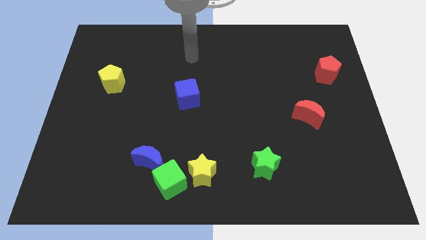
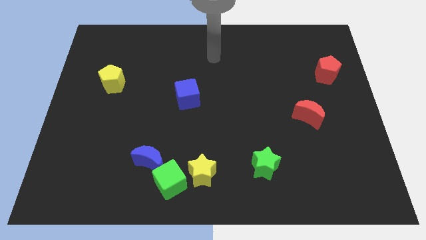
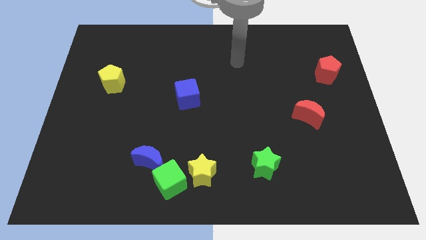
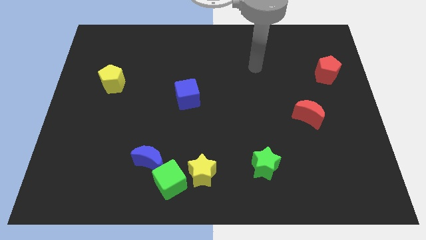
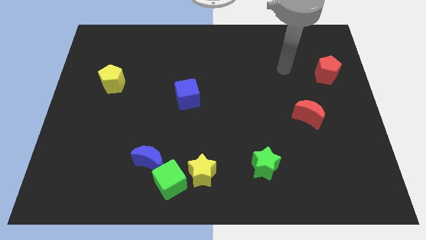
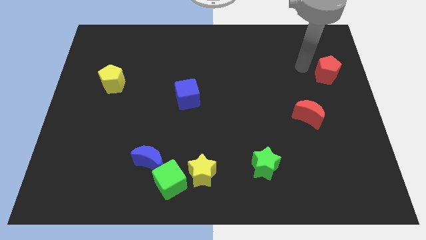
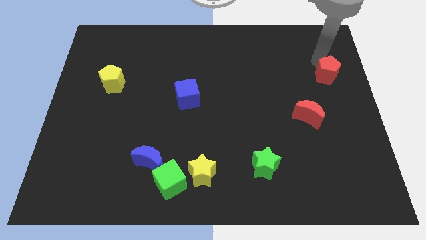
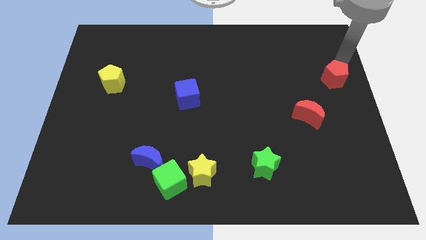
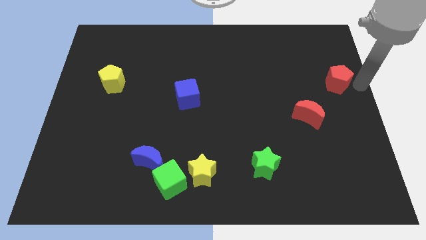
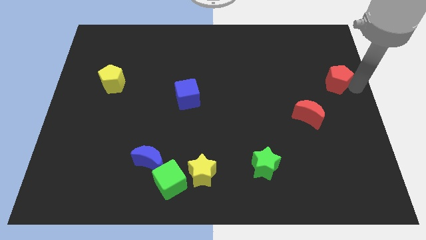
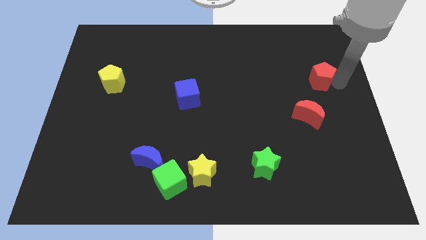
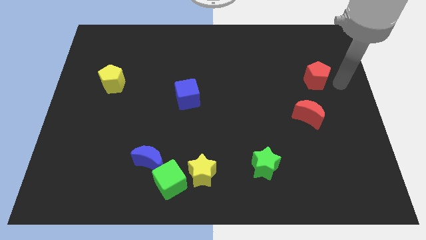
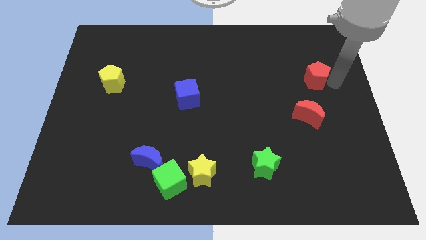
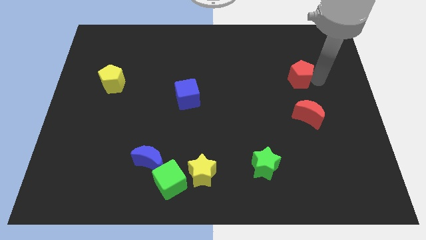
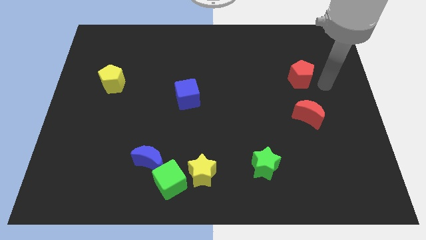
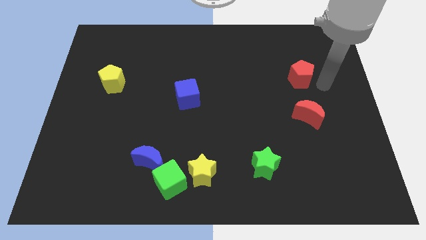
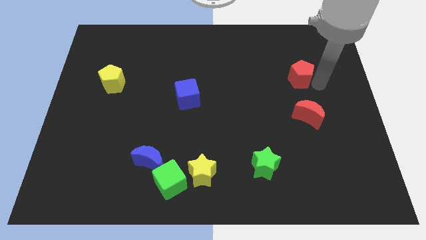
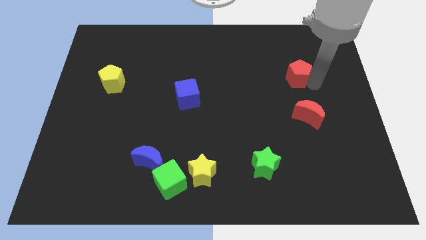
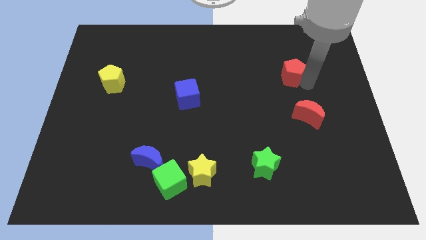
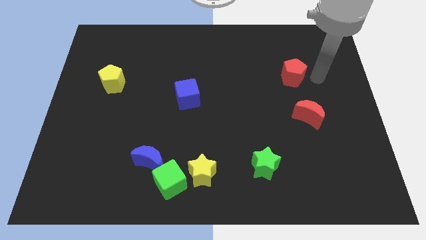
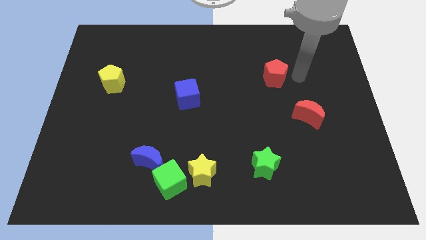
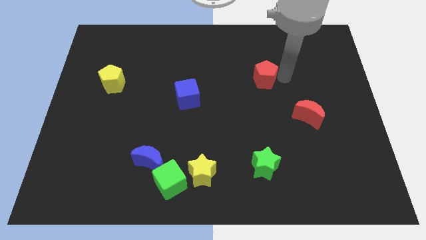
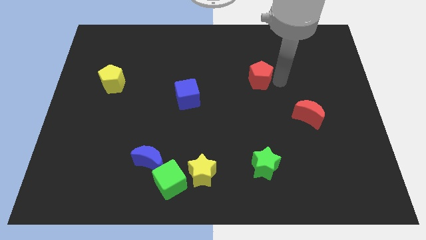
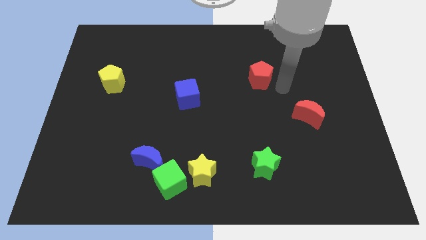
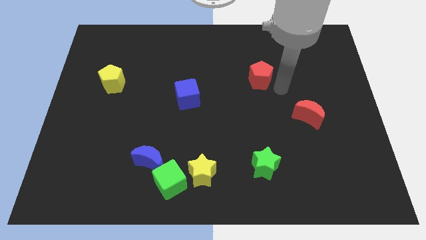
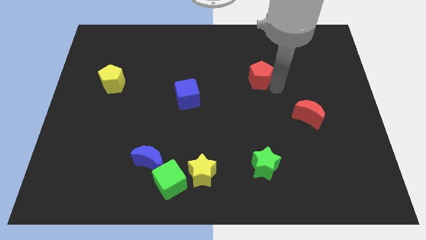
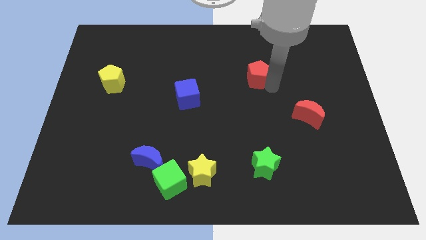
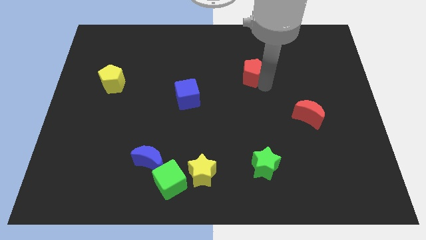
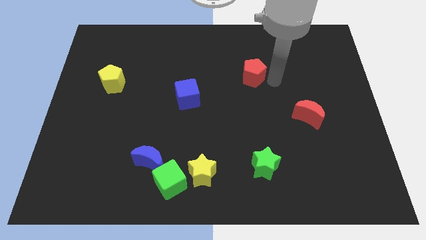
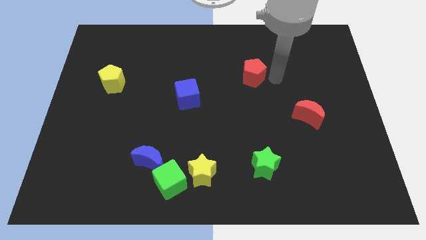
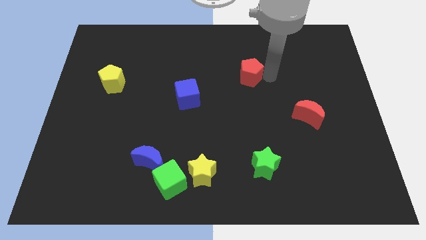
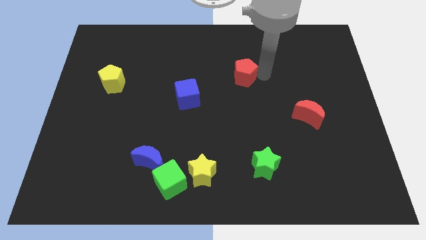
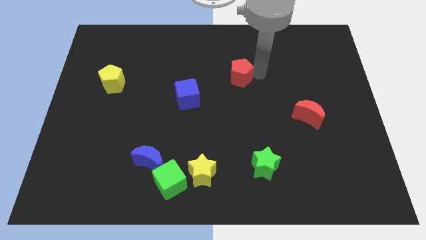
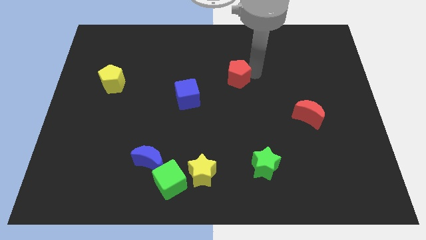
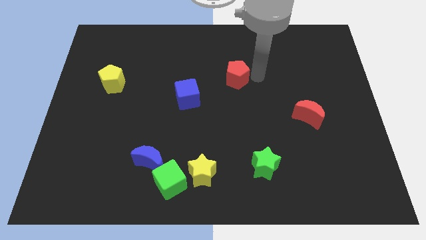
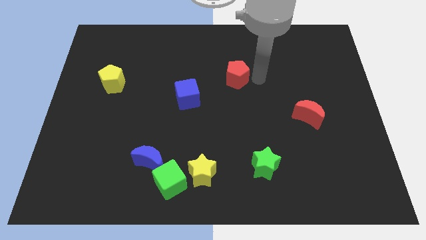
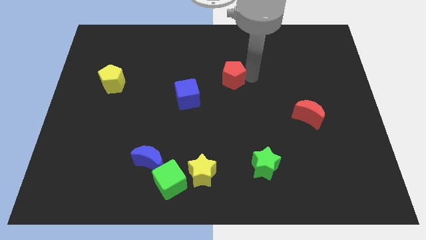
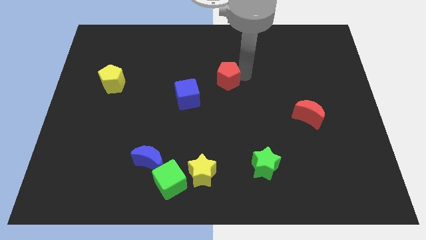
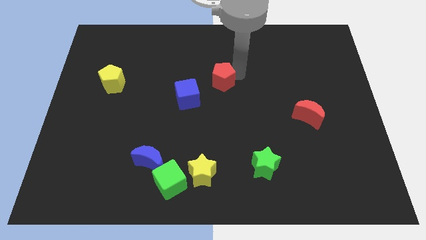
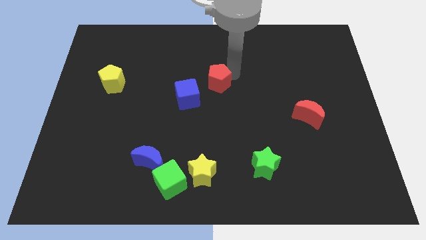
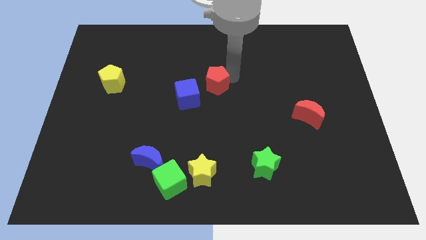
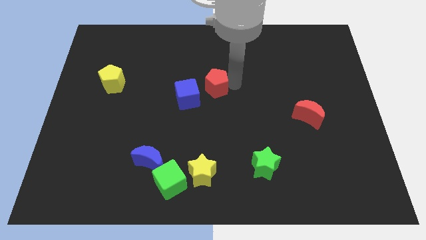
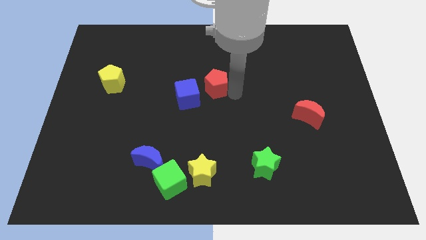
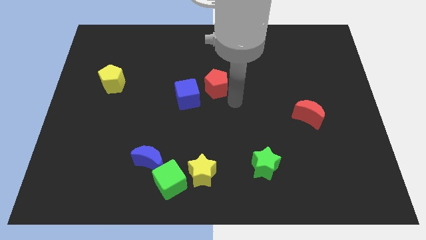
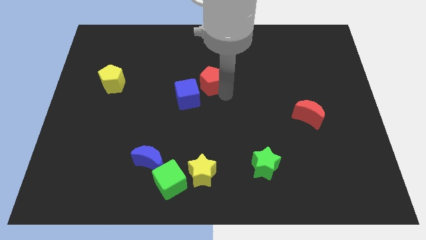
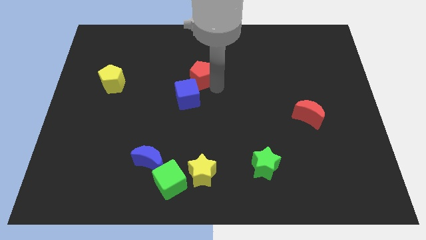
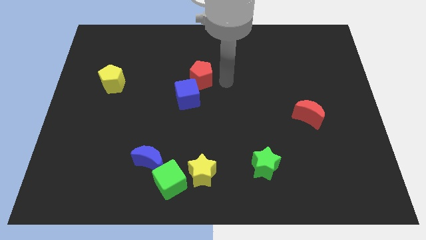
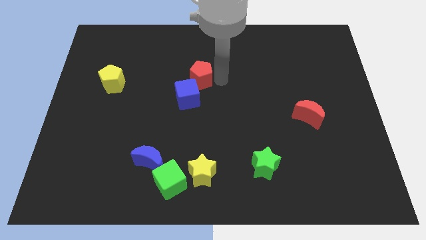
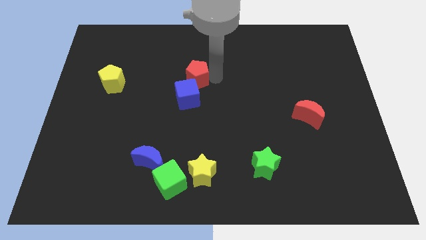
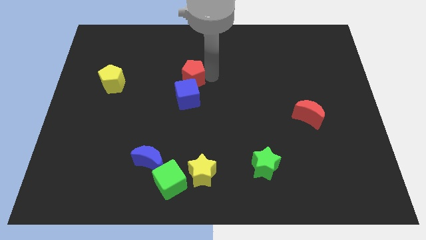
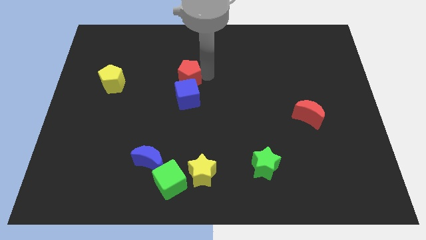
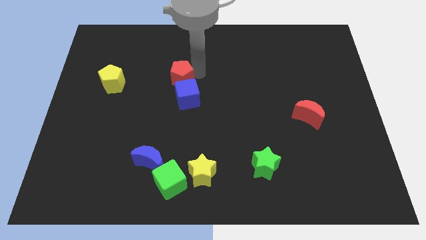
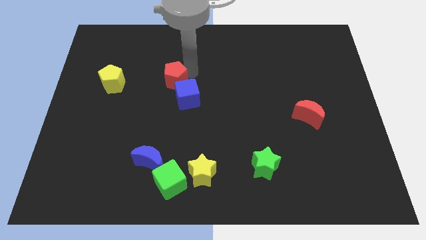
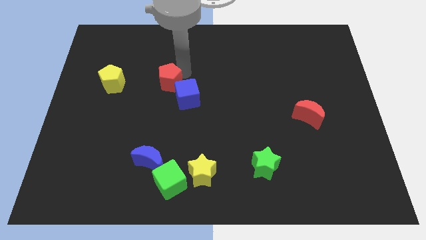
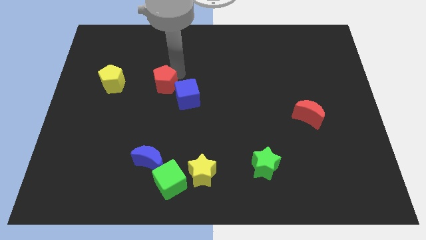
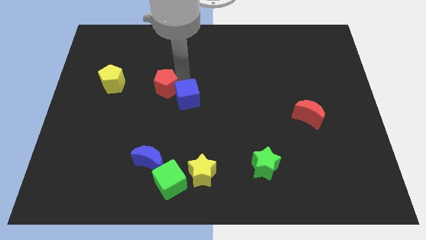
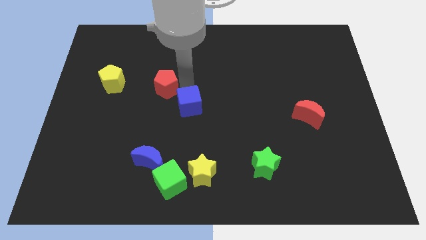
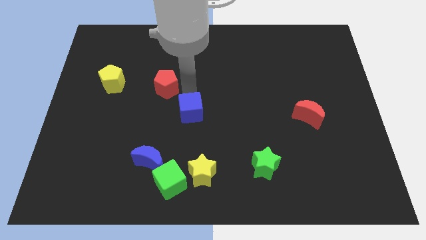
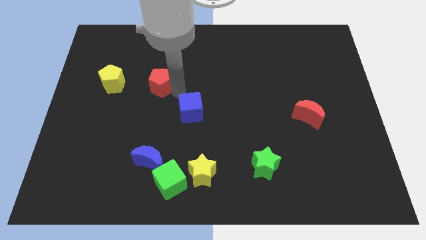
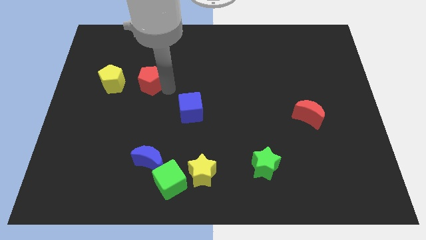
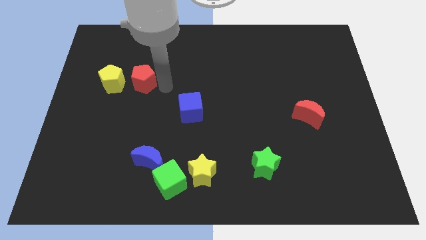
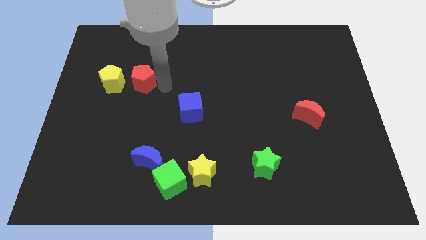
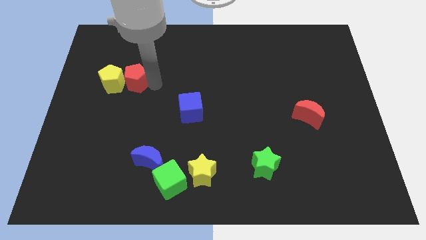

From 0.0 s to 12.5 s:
move the red pentagon to the yellow pentagon

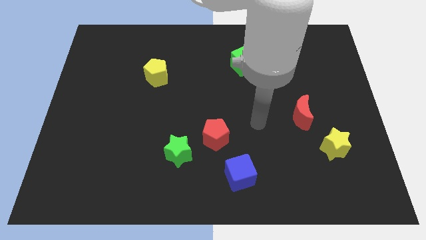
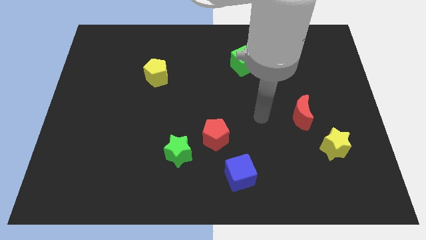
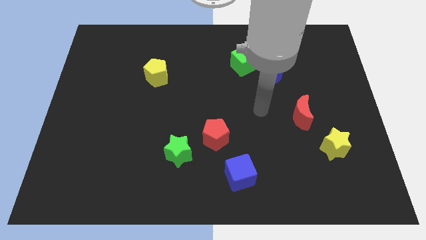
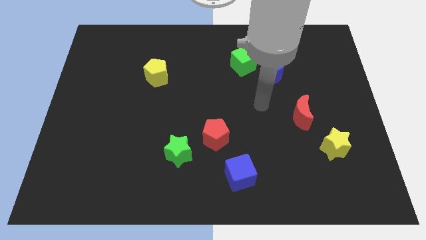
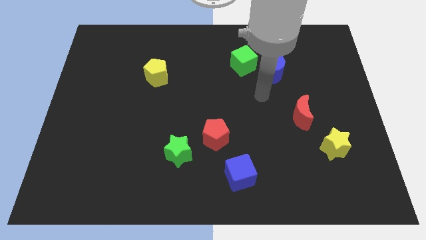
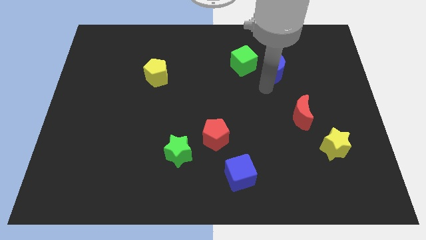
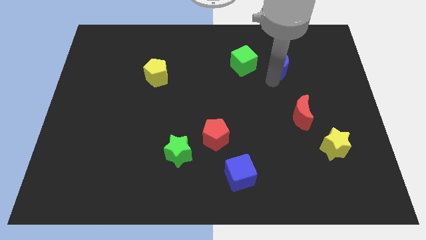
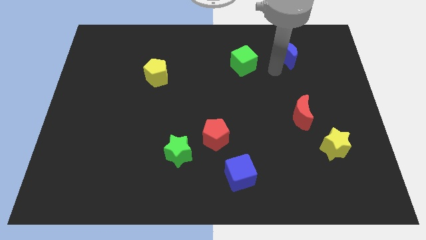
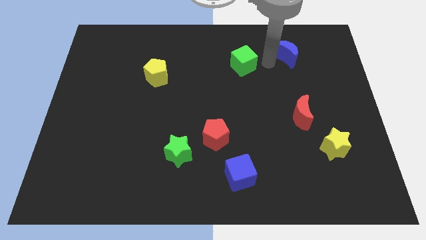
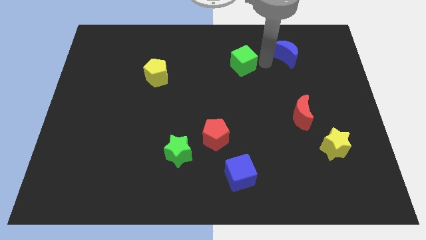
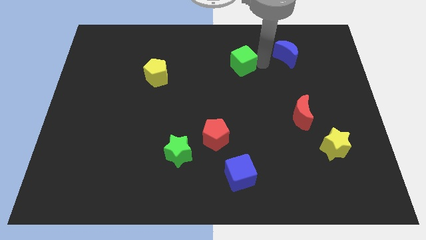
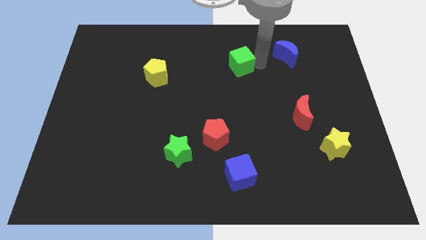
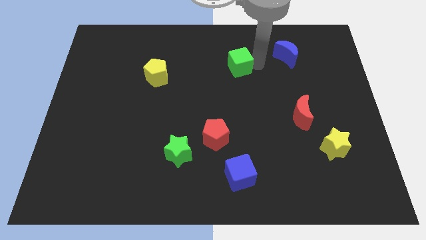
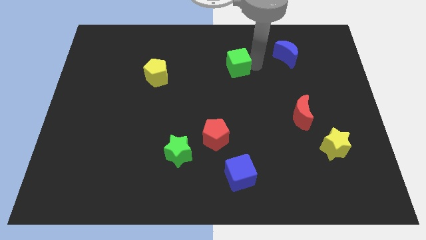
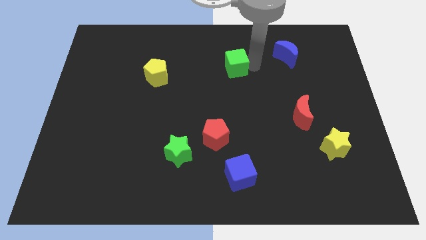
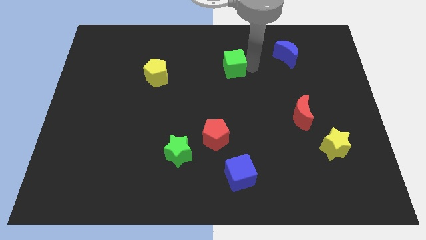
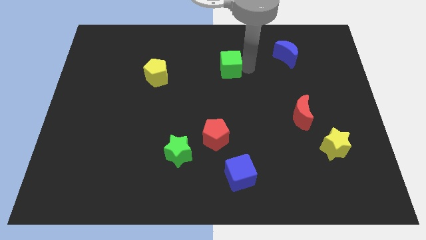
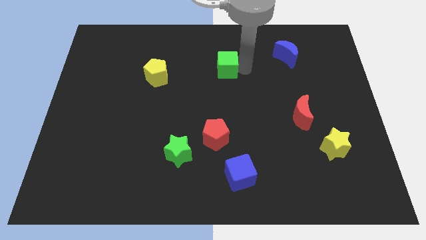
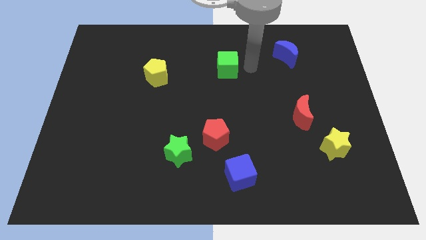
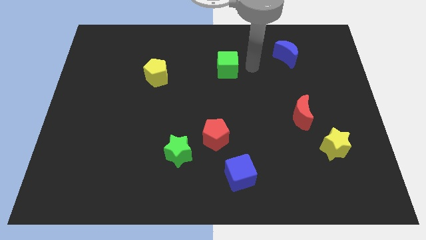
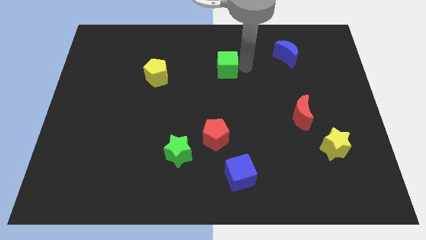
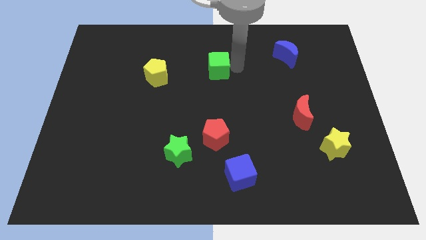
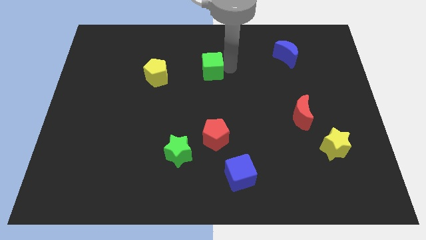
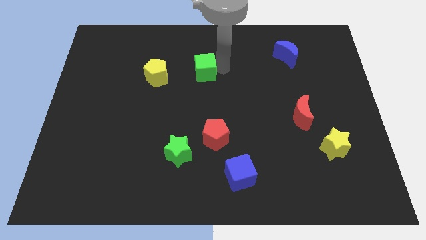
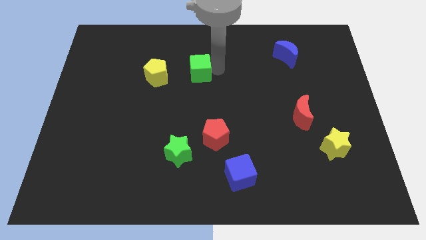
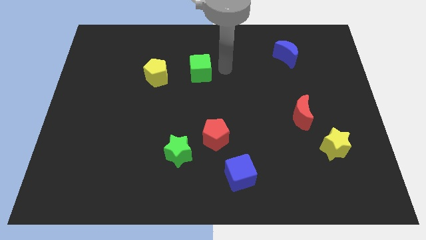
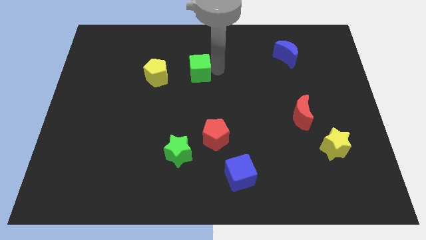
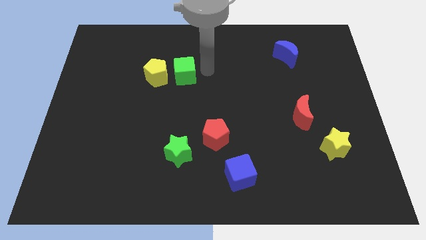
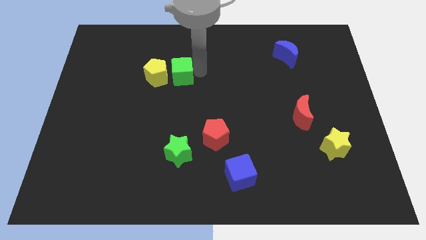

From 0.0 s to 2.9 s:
slide the green cube close to the yellow pentagon
